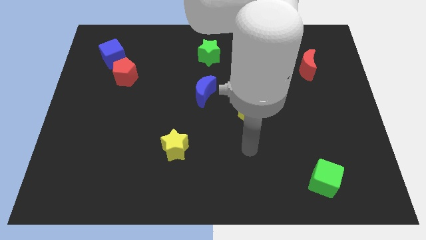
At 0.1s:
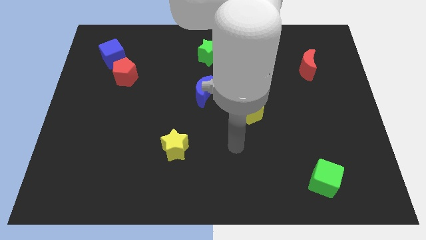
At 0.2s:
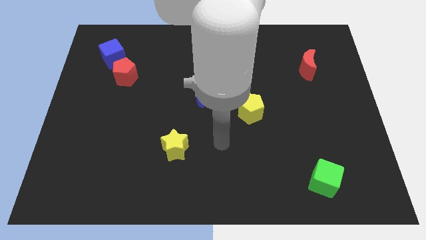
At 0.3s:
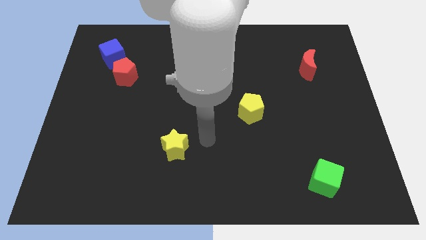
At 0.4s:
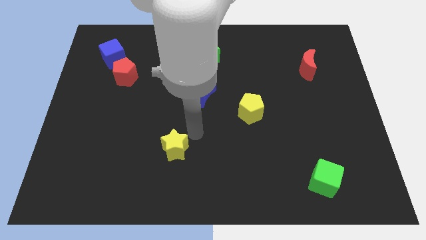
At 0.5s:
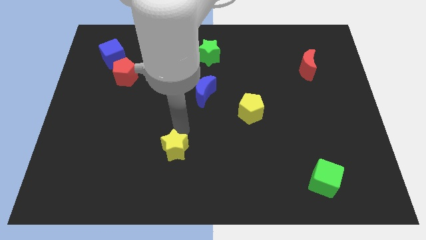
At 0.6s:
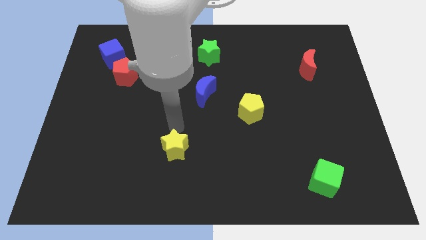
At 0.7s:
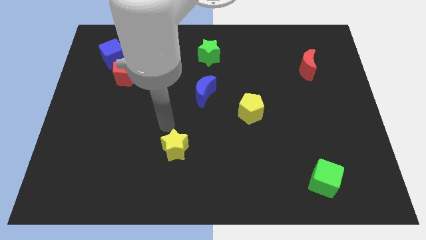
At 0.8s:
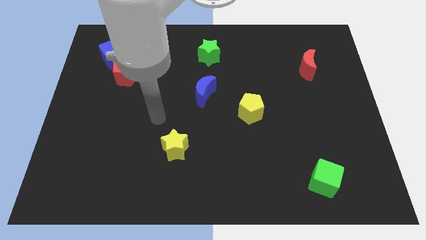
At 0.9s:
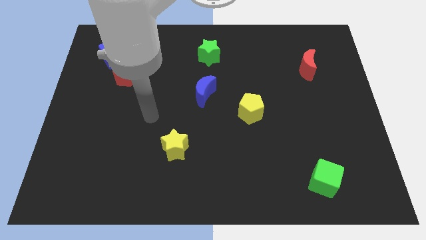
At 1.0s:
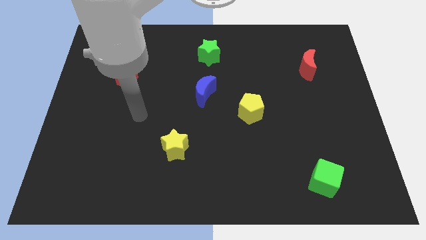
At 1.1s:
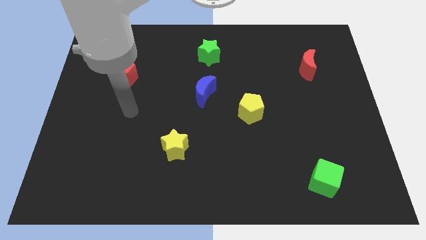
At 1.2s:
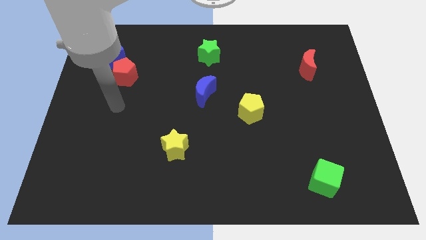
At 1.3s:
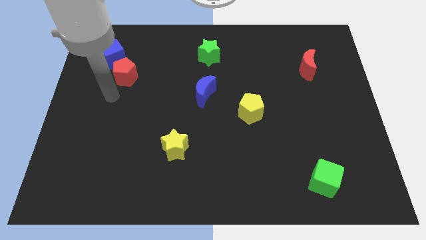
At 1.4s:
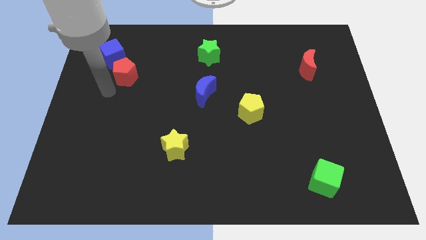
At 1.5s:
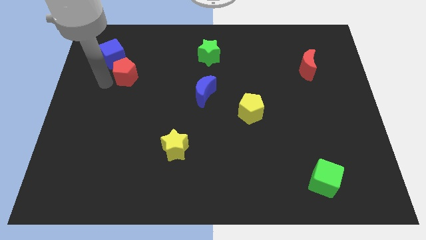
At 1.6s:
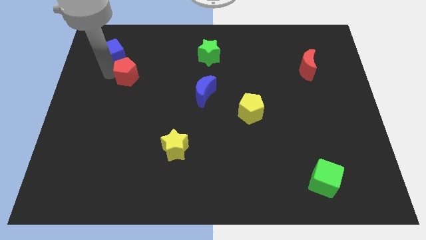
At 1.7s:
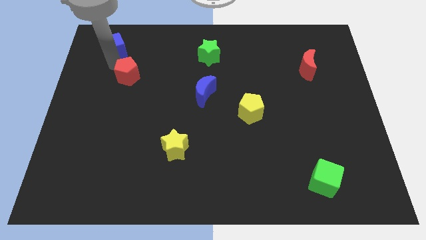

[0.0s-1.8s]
move the red pentagon away from the blue cube

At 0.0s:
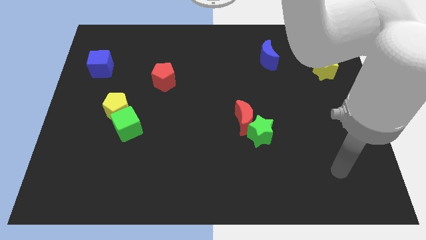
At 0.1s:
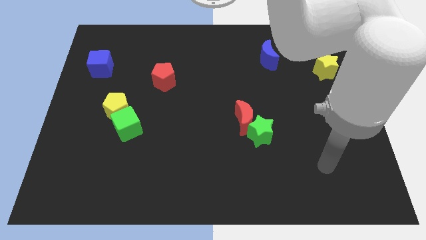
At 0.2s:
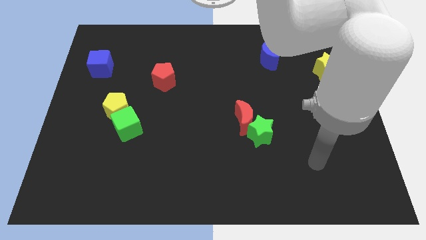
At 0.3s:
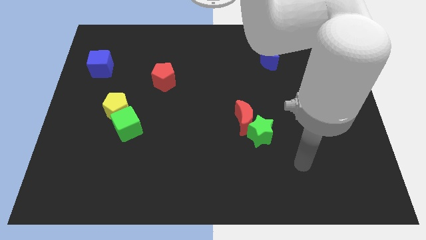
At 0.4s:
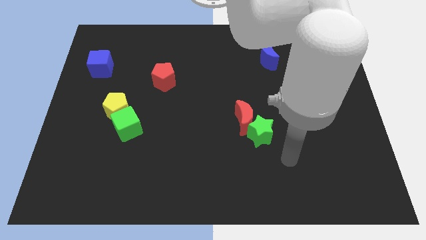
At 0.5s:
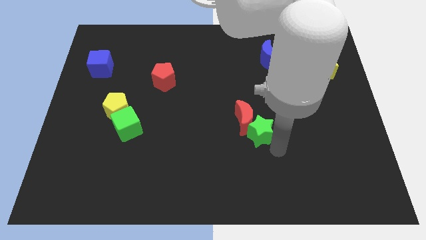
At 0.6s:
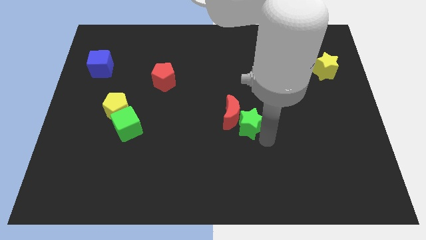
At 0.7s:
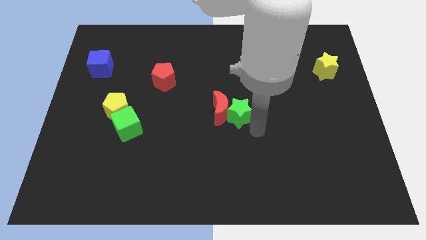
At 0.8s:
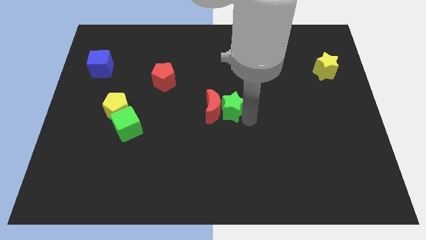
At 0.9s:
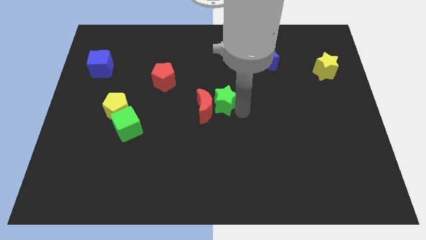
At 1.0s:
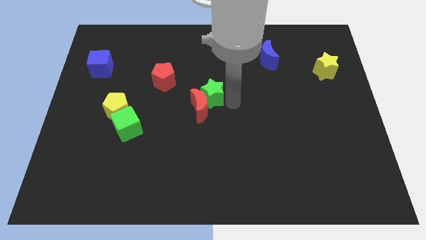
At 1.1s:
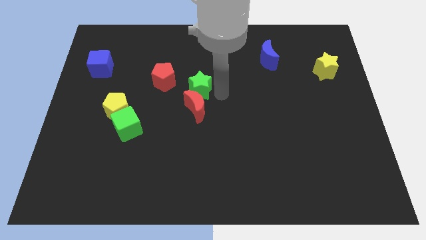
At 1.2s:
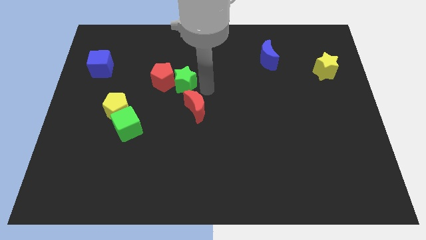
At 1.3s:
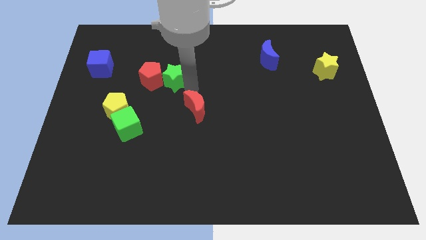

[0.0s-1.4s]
pull the red moon apart from the green star

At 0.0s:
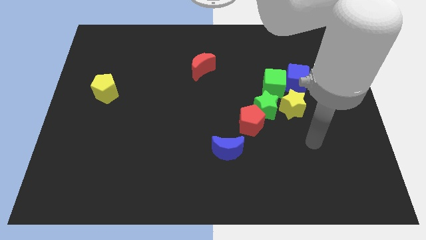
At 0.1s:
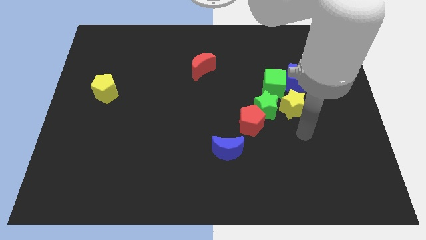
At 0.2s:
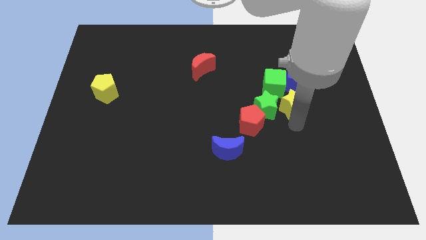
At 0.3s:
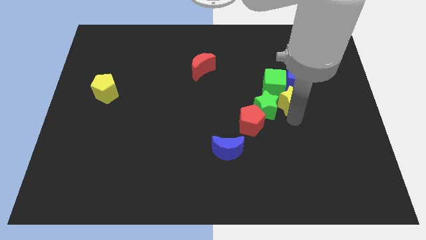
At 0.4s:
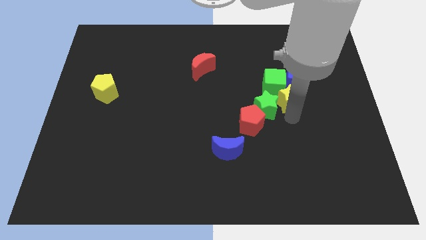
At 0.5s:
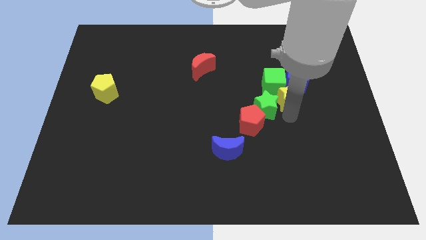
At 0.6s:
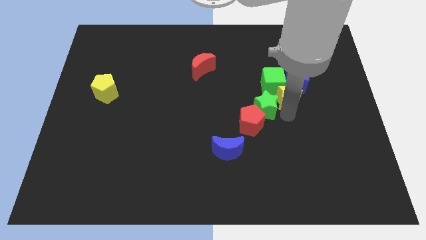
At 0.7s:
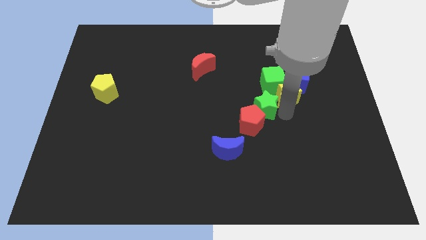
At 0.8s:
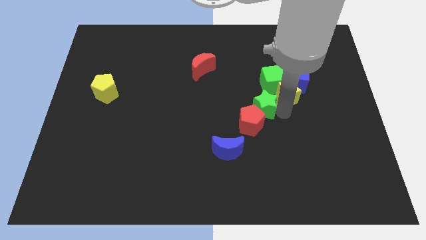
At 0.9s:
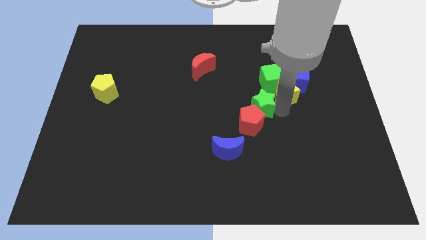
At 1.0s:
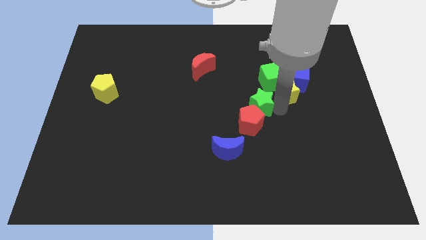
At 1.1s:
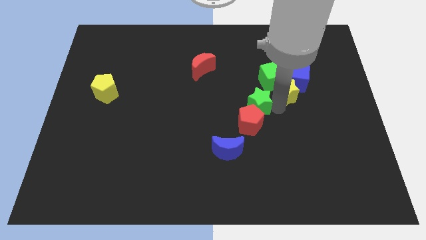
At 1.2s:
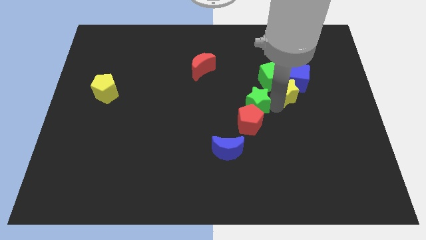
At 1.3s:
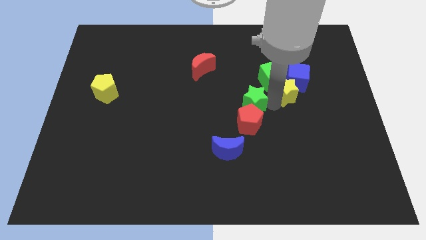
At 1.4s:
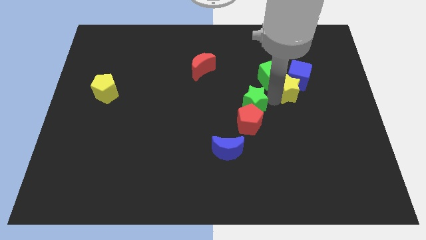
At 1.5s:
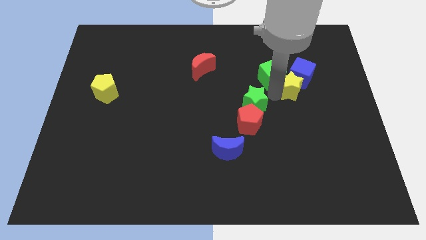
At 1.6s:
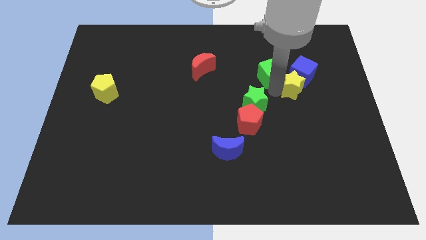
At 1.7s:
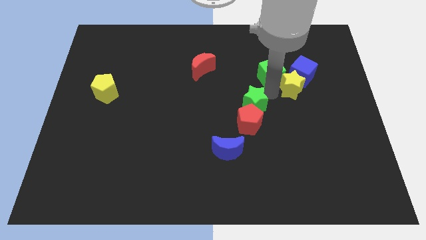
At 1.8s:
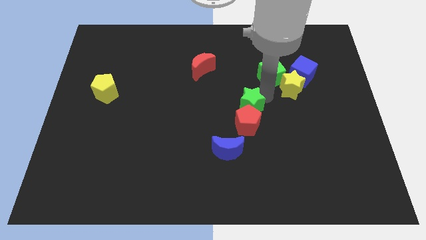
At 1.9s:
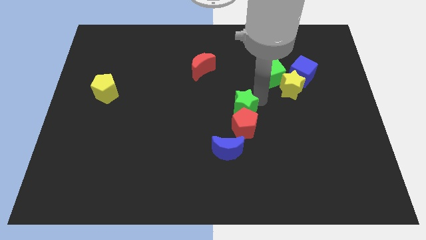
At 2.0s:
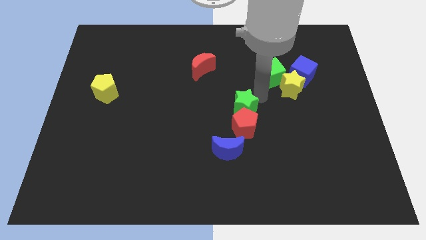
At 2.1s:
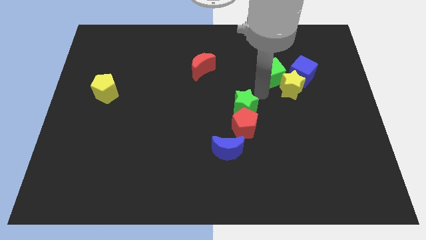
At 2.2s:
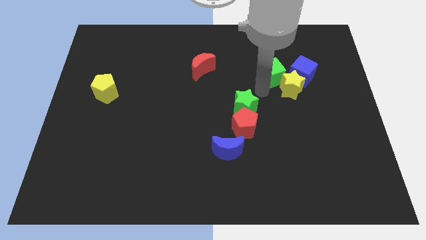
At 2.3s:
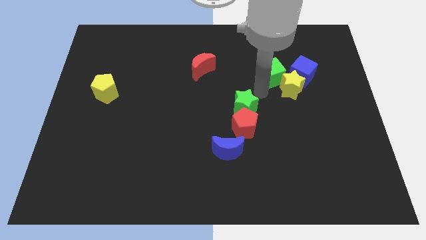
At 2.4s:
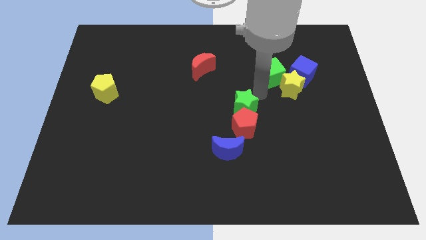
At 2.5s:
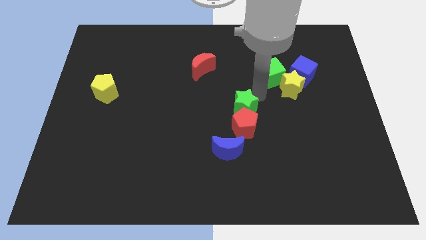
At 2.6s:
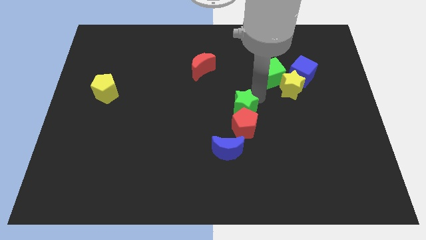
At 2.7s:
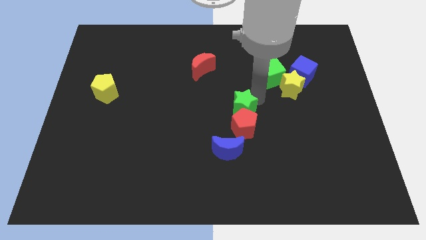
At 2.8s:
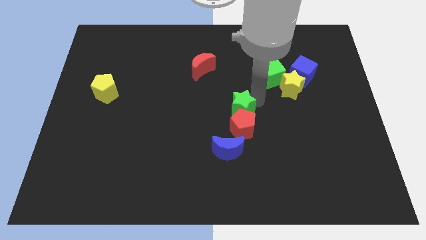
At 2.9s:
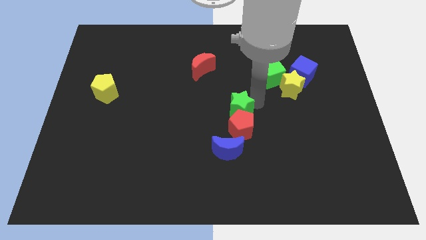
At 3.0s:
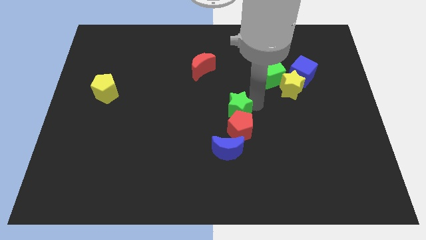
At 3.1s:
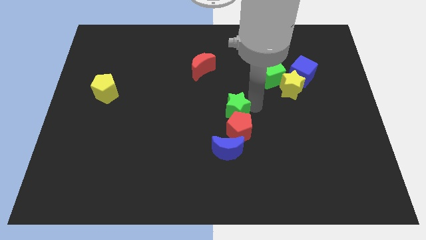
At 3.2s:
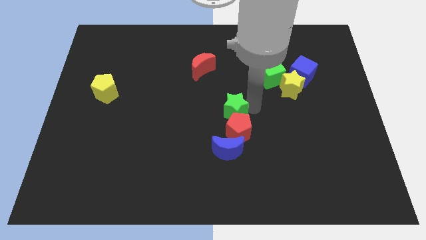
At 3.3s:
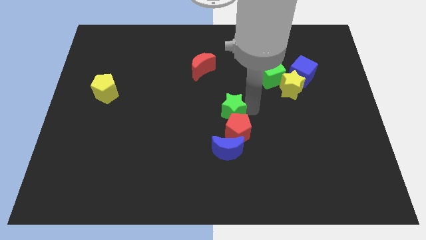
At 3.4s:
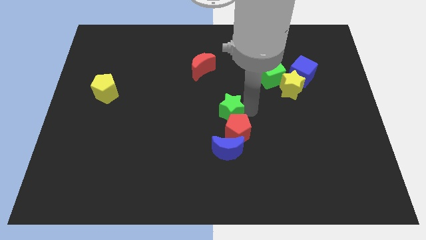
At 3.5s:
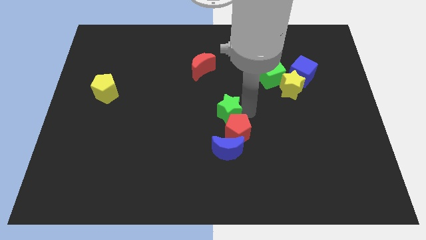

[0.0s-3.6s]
pull the green star apart from the group

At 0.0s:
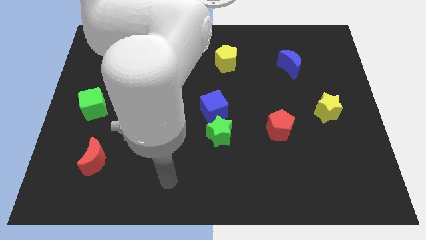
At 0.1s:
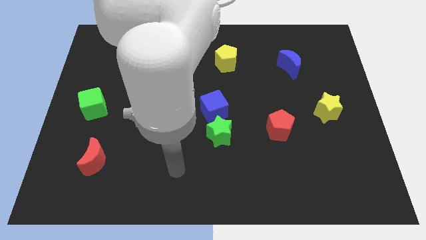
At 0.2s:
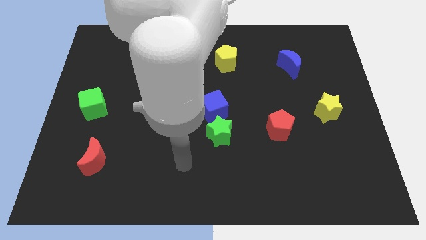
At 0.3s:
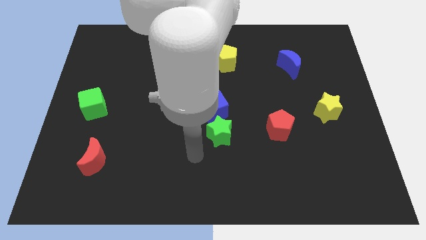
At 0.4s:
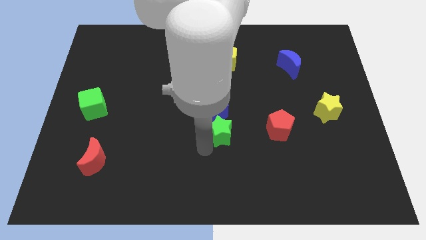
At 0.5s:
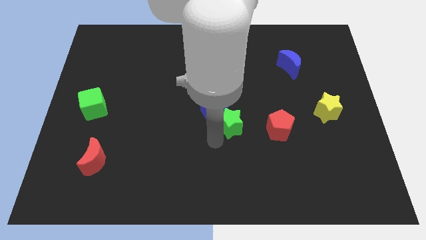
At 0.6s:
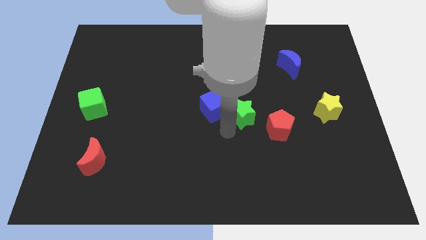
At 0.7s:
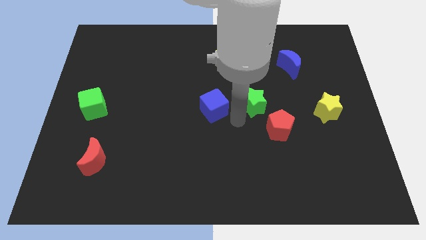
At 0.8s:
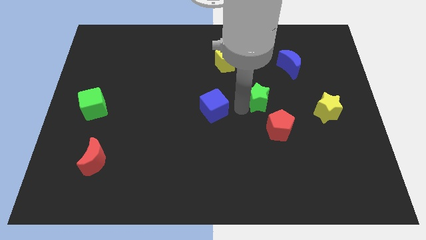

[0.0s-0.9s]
move the blue cube away from the green star

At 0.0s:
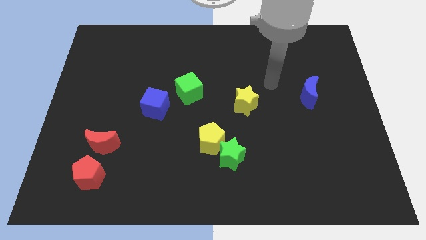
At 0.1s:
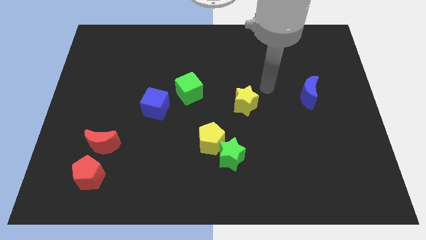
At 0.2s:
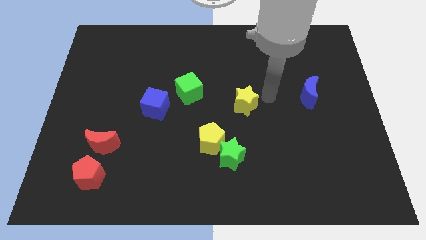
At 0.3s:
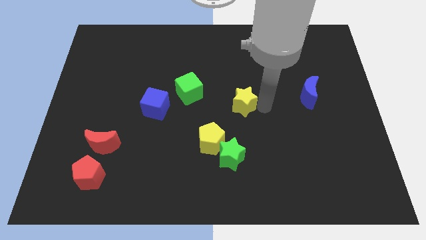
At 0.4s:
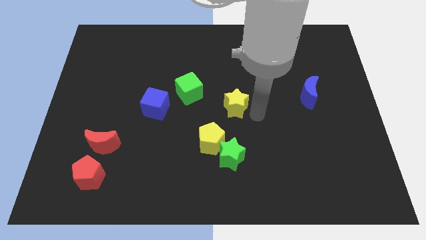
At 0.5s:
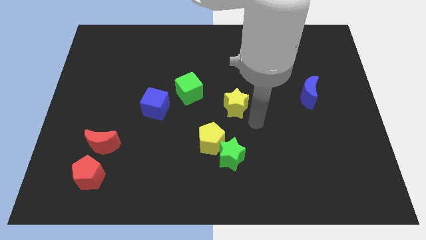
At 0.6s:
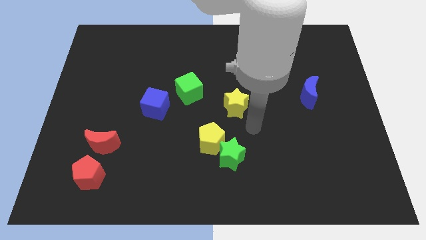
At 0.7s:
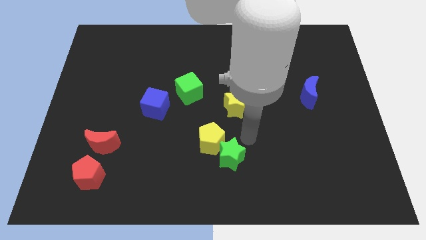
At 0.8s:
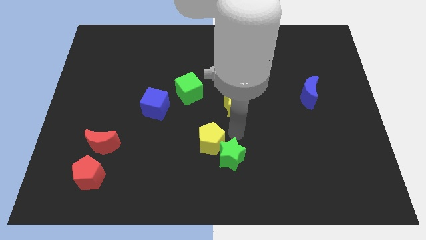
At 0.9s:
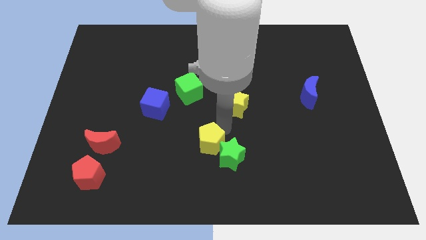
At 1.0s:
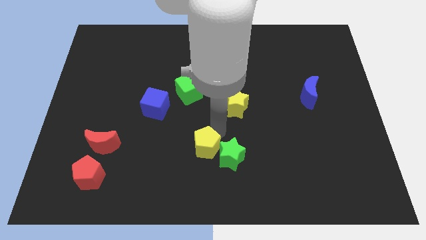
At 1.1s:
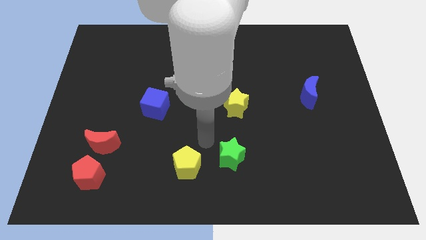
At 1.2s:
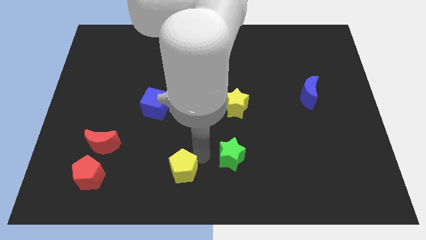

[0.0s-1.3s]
pull the green star apart from the yellow pentagon

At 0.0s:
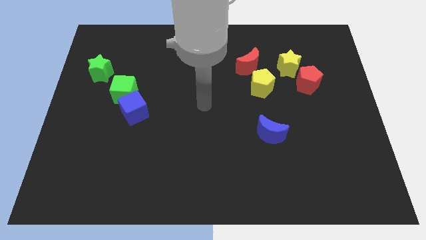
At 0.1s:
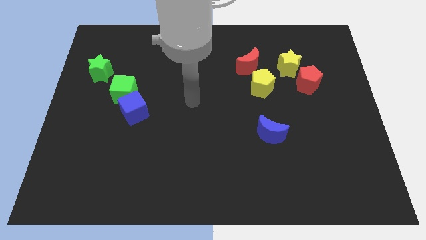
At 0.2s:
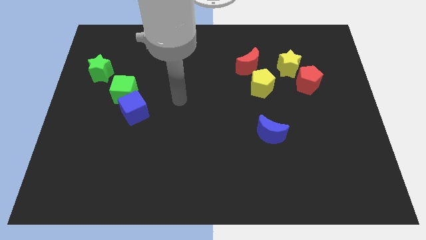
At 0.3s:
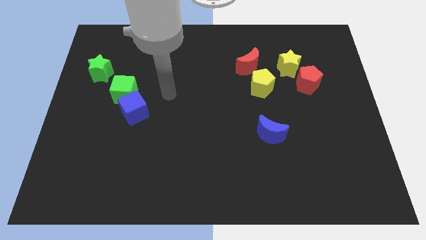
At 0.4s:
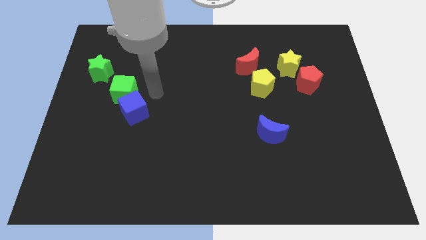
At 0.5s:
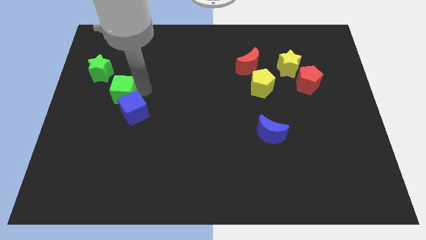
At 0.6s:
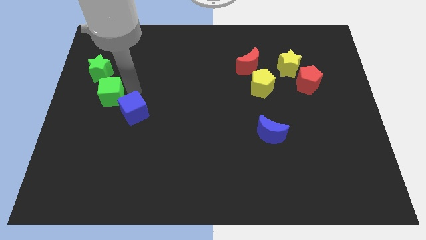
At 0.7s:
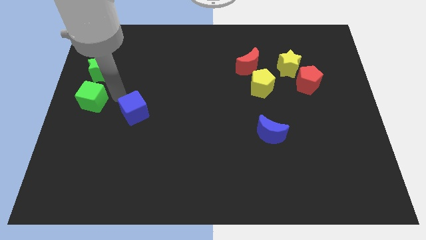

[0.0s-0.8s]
move the blue cube away from the green cube
